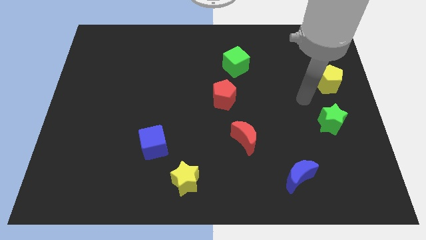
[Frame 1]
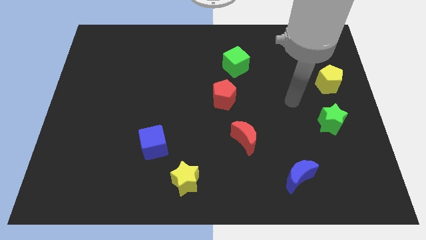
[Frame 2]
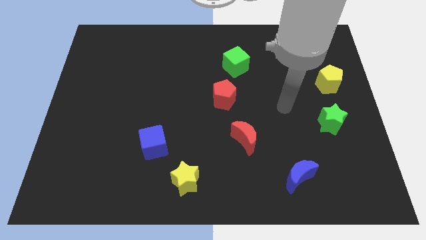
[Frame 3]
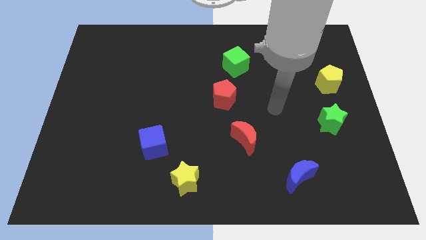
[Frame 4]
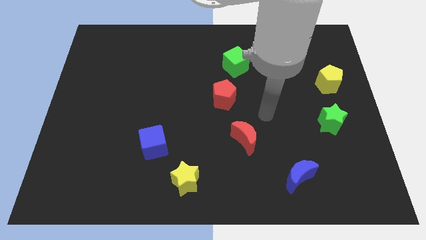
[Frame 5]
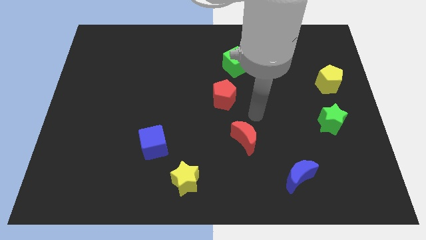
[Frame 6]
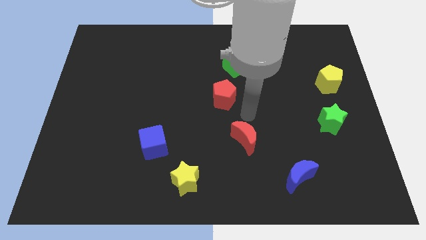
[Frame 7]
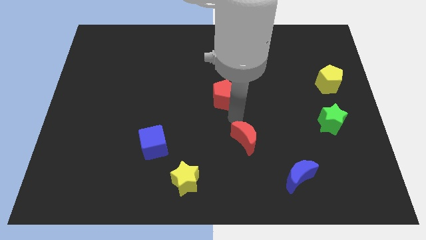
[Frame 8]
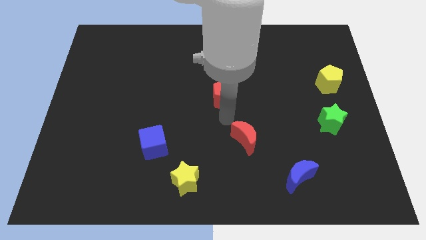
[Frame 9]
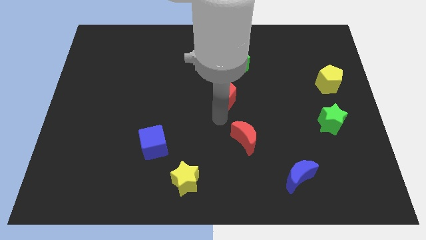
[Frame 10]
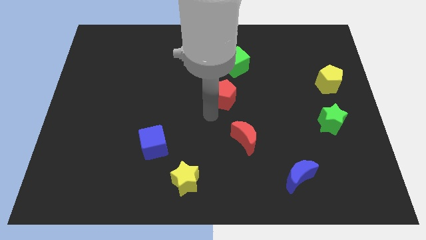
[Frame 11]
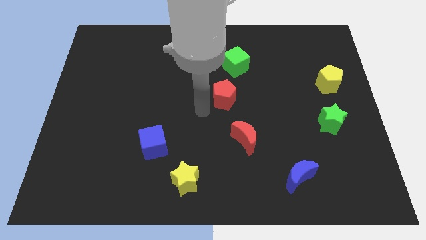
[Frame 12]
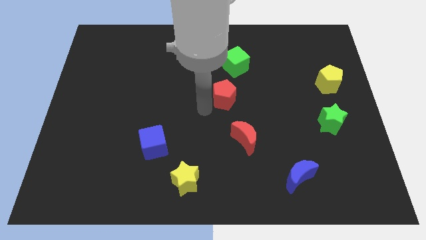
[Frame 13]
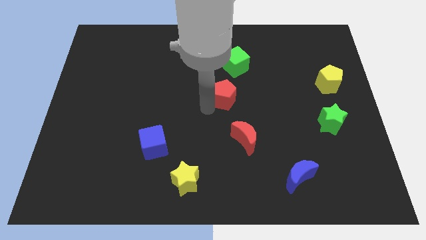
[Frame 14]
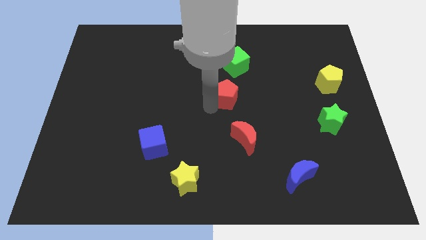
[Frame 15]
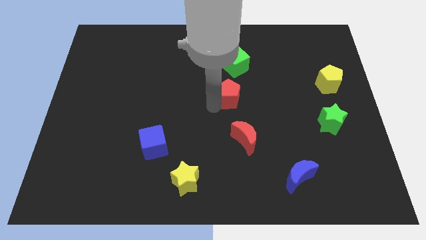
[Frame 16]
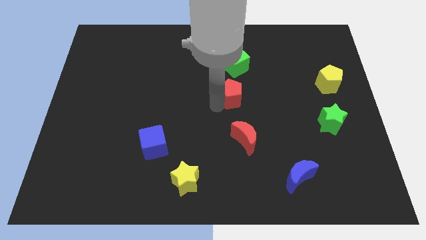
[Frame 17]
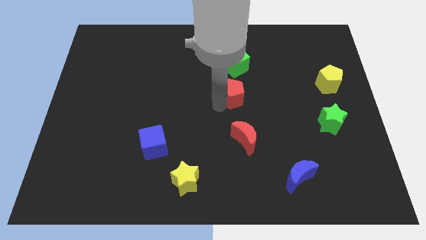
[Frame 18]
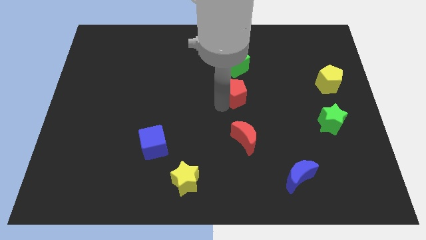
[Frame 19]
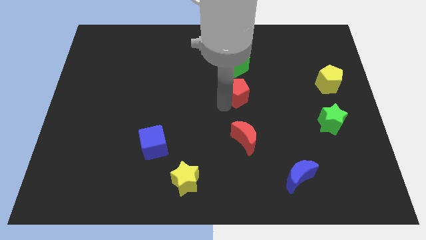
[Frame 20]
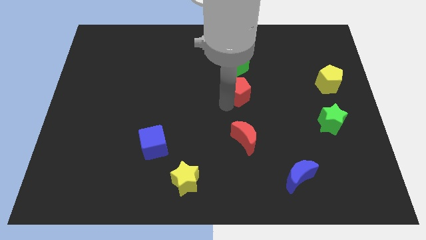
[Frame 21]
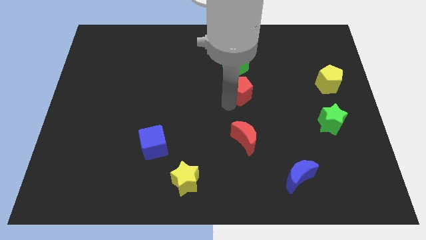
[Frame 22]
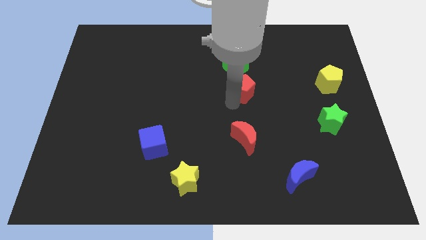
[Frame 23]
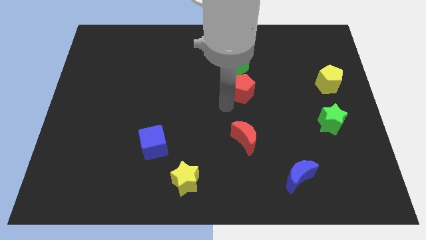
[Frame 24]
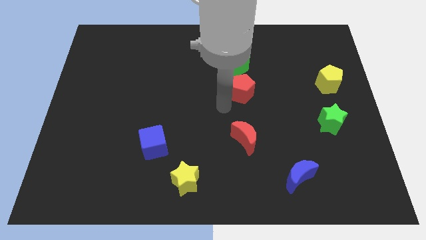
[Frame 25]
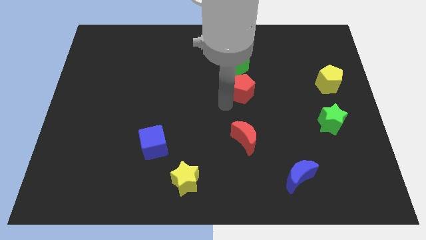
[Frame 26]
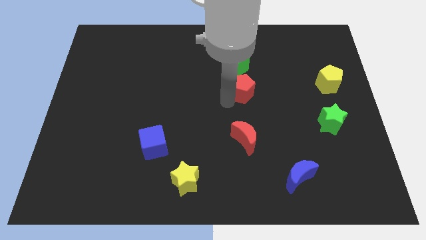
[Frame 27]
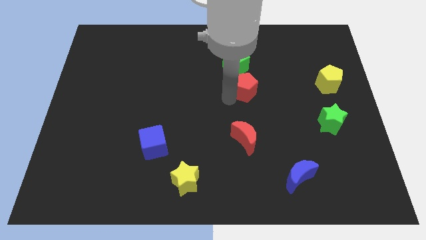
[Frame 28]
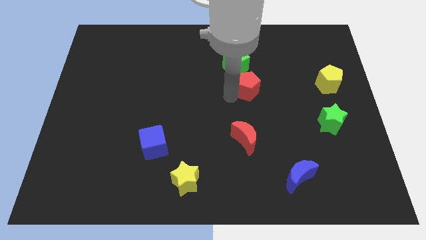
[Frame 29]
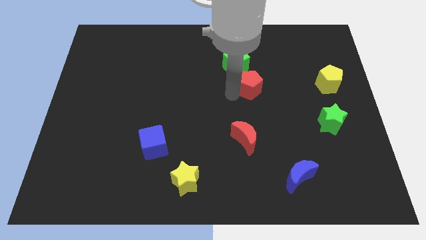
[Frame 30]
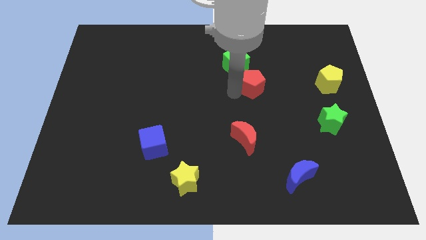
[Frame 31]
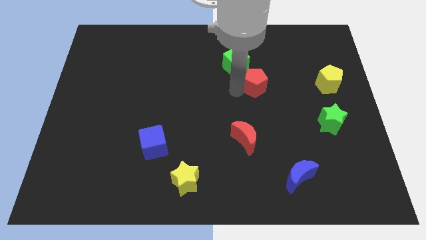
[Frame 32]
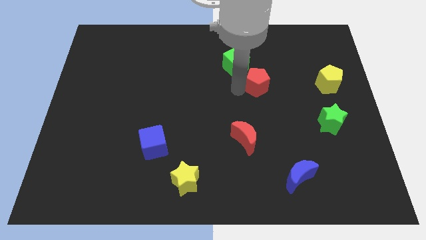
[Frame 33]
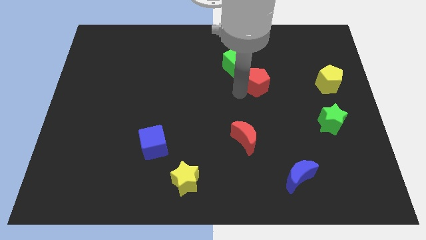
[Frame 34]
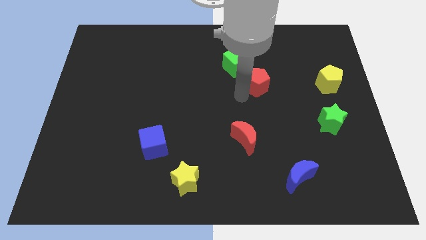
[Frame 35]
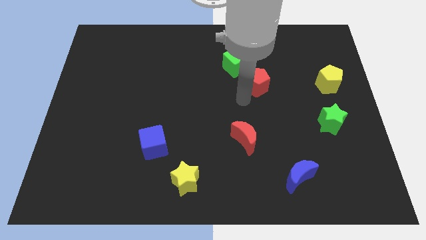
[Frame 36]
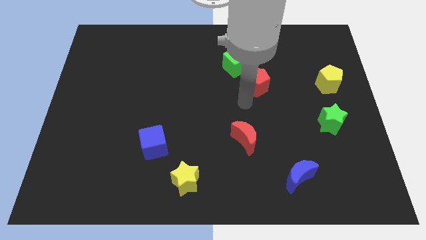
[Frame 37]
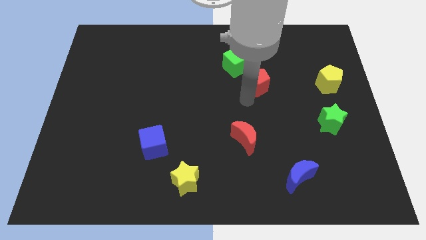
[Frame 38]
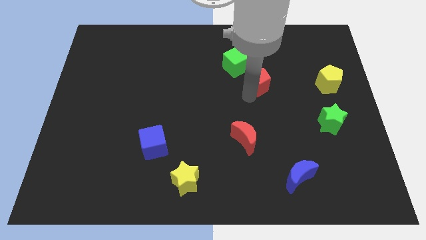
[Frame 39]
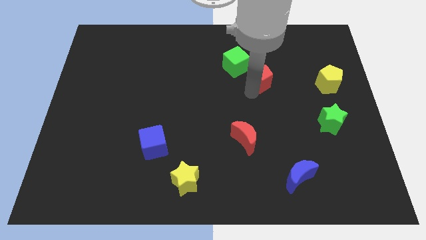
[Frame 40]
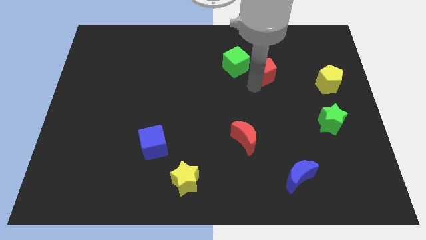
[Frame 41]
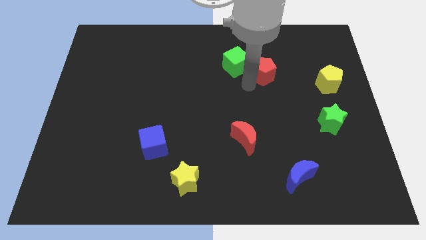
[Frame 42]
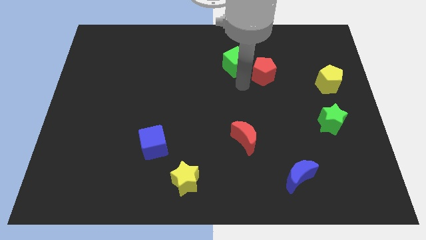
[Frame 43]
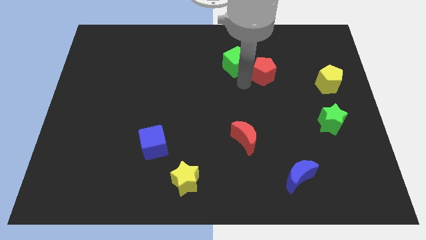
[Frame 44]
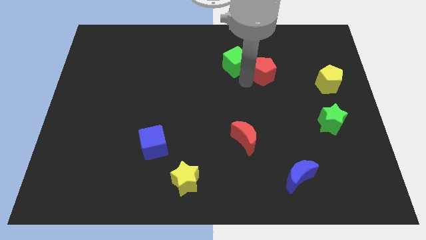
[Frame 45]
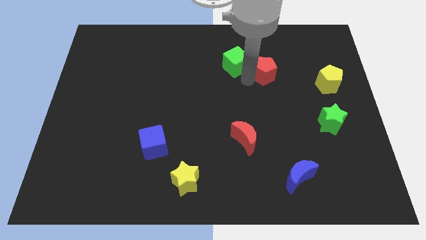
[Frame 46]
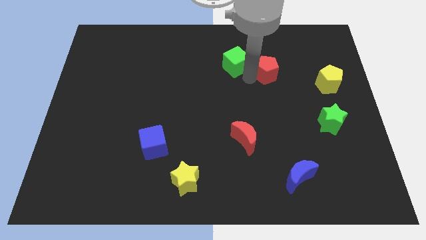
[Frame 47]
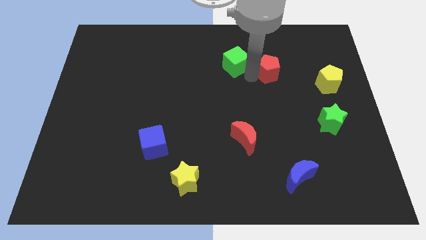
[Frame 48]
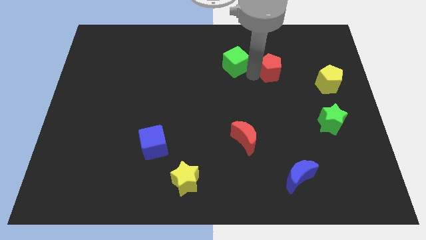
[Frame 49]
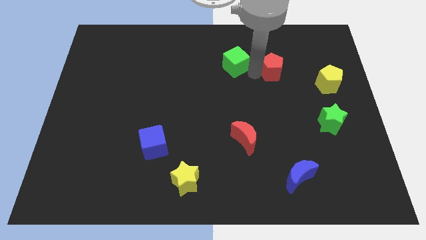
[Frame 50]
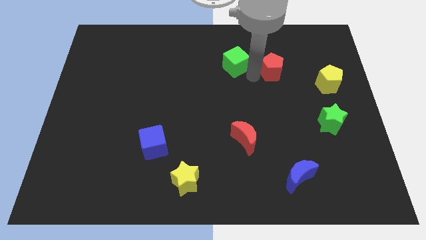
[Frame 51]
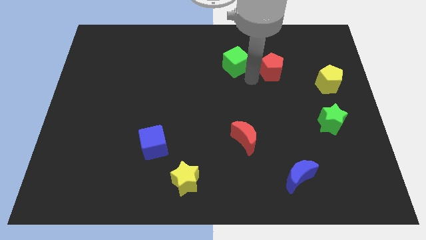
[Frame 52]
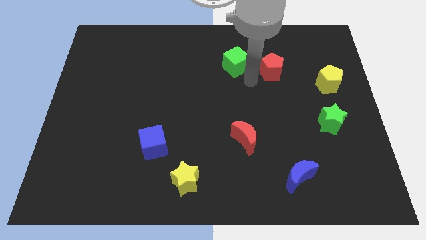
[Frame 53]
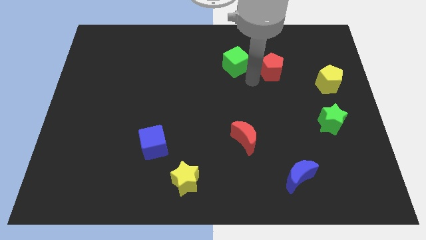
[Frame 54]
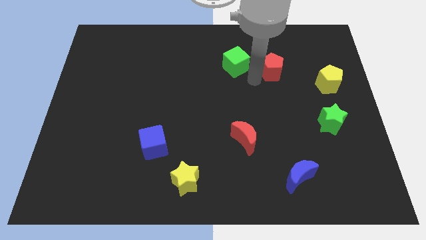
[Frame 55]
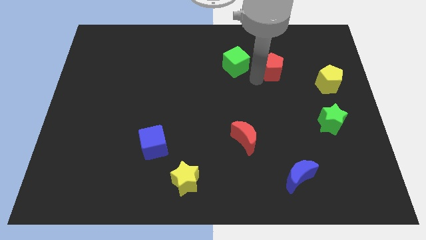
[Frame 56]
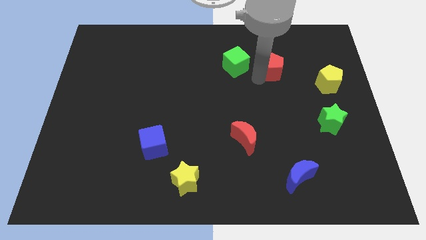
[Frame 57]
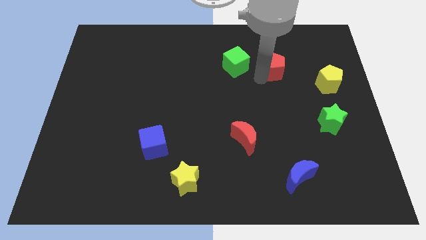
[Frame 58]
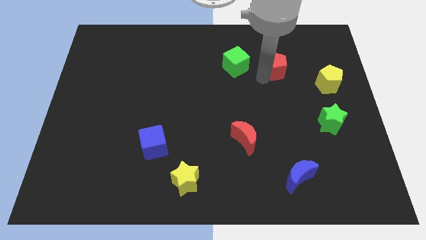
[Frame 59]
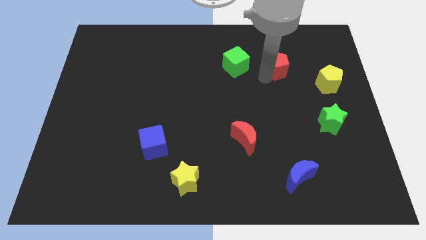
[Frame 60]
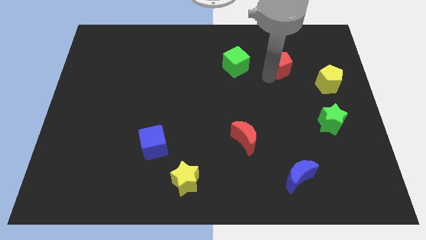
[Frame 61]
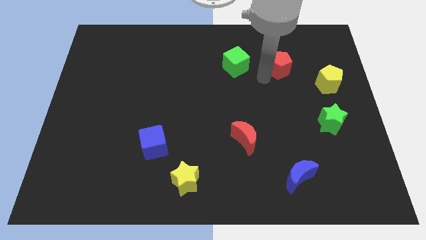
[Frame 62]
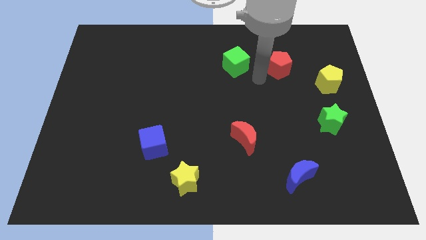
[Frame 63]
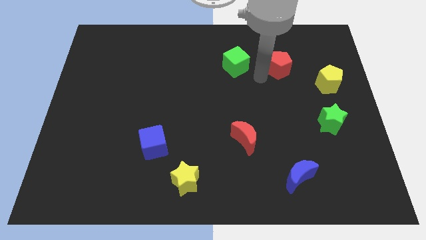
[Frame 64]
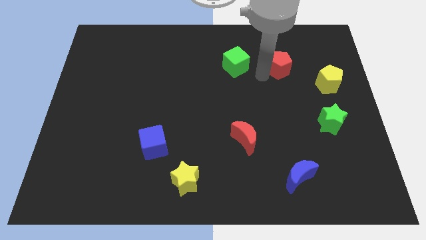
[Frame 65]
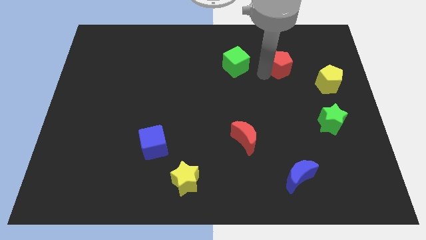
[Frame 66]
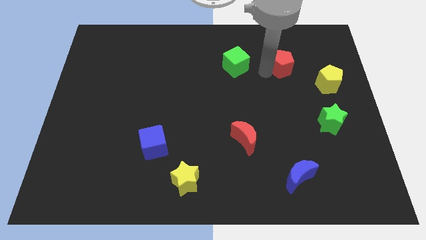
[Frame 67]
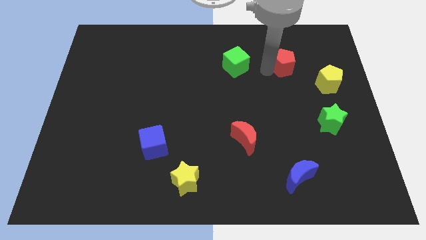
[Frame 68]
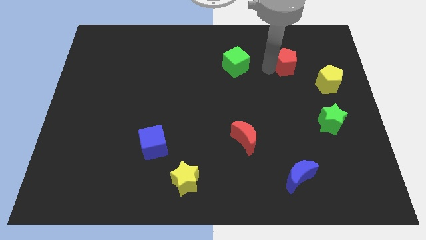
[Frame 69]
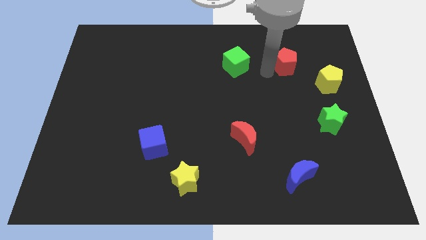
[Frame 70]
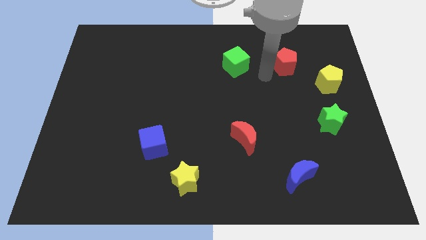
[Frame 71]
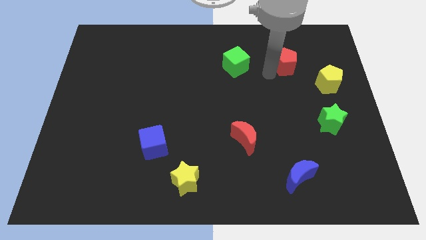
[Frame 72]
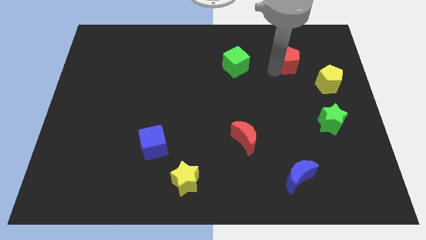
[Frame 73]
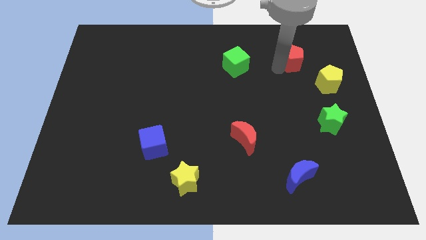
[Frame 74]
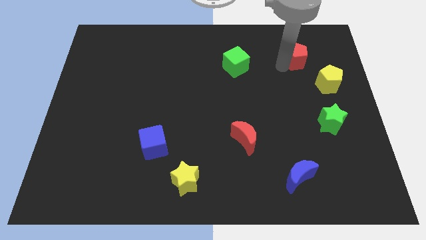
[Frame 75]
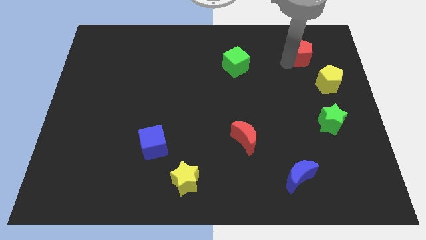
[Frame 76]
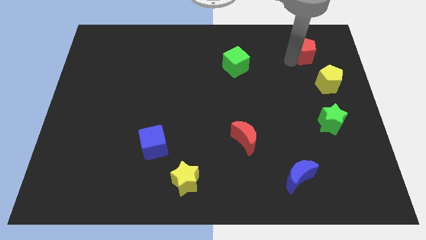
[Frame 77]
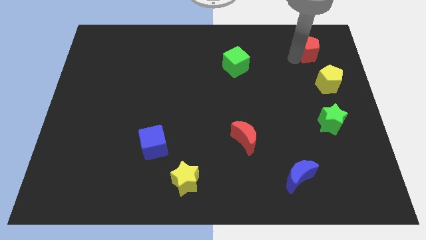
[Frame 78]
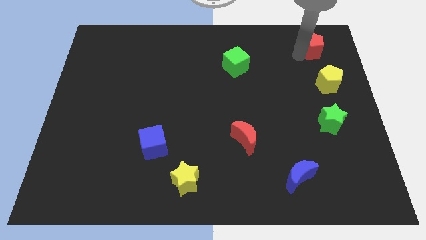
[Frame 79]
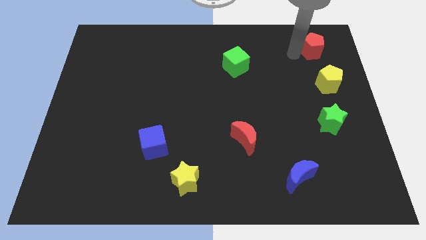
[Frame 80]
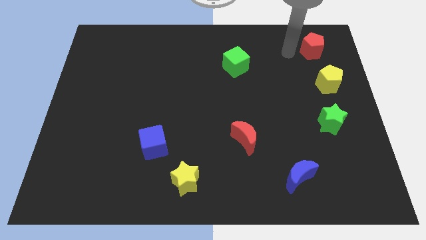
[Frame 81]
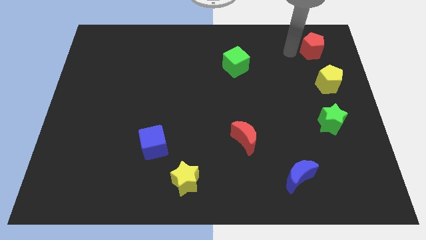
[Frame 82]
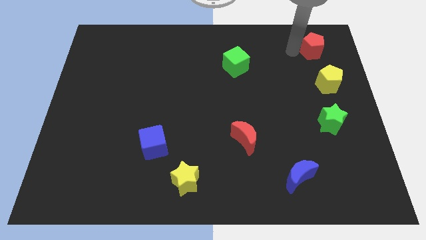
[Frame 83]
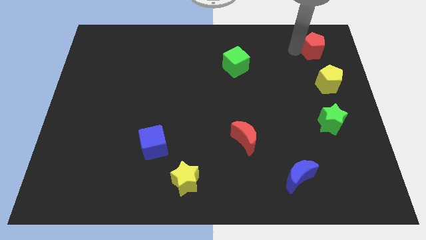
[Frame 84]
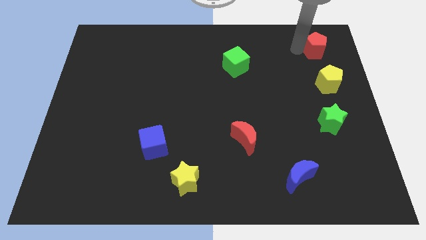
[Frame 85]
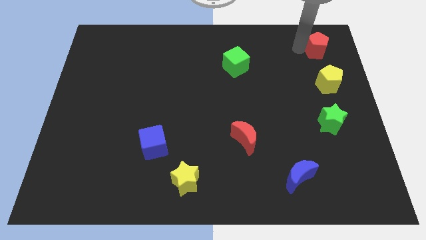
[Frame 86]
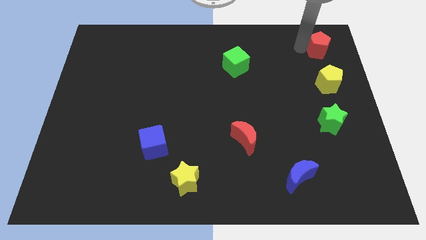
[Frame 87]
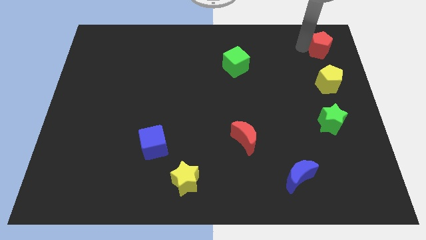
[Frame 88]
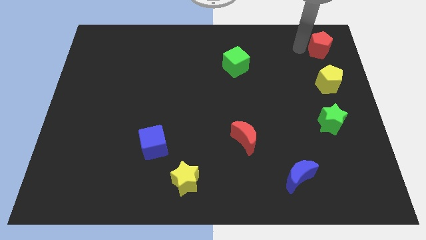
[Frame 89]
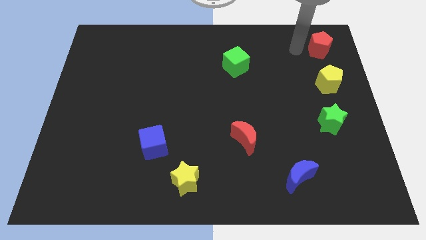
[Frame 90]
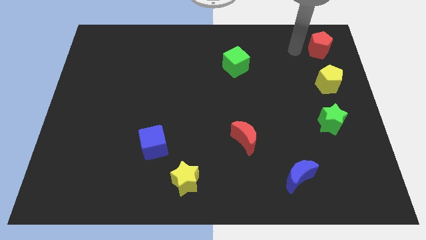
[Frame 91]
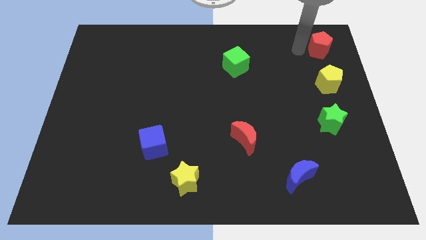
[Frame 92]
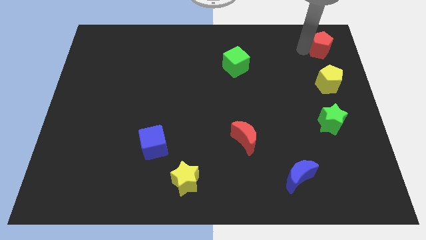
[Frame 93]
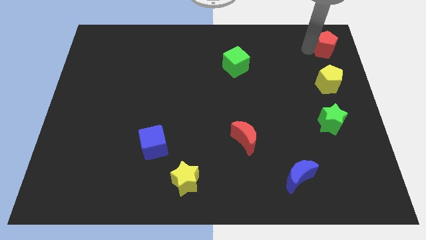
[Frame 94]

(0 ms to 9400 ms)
move the red pentagon to the top right
